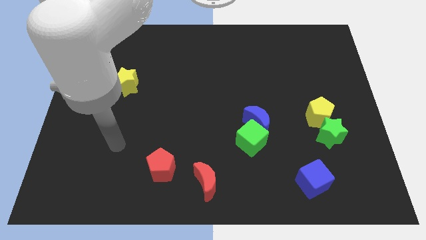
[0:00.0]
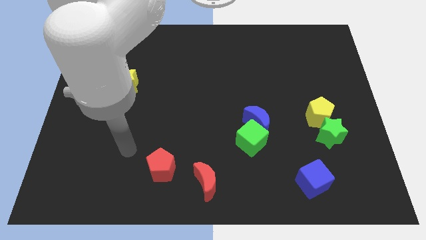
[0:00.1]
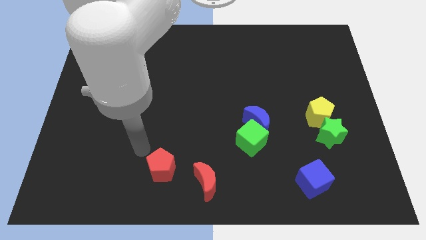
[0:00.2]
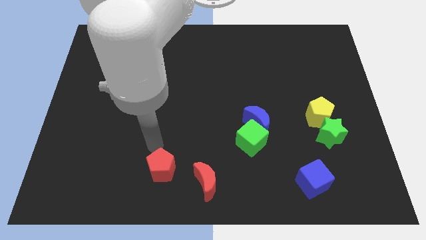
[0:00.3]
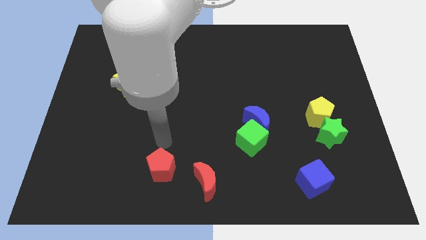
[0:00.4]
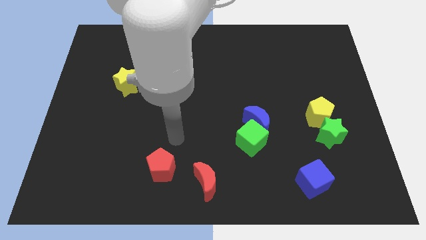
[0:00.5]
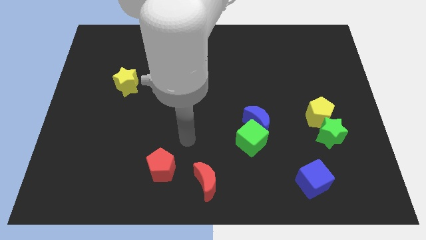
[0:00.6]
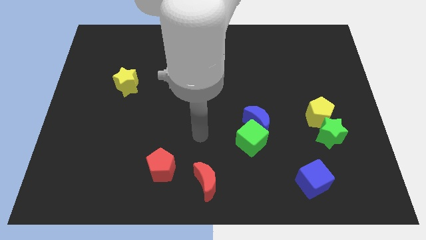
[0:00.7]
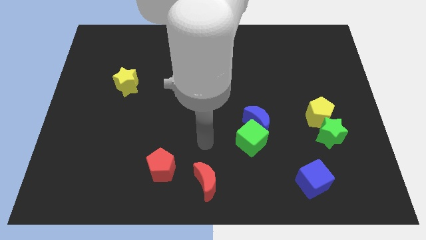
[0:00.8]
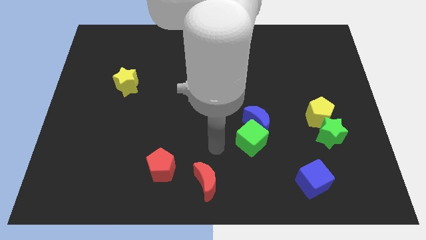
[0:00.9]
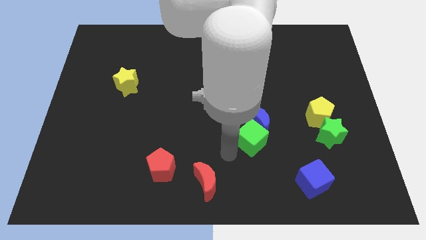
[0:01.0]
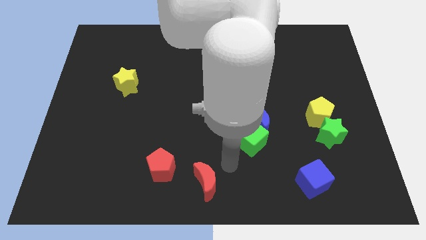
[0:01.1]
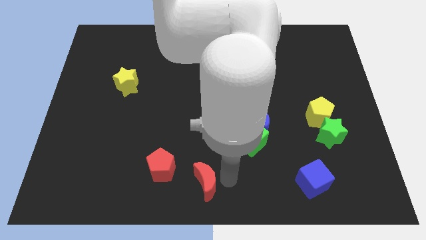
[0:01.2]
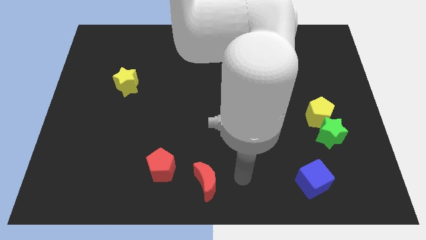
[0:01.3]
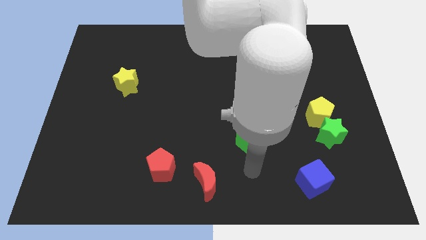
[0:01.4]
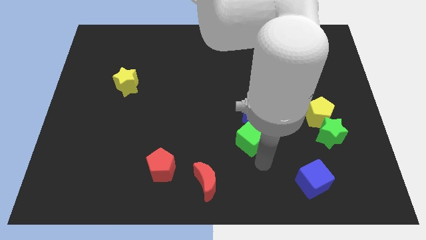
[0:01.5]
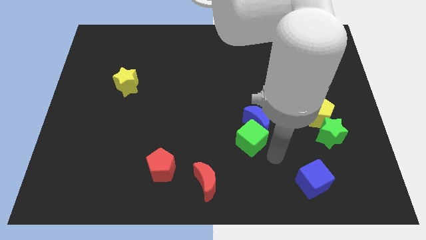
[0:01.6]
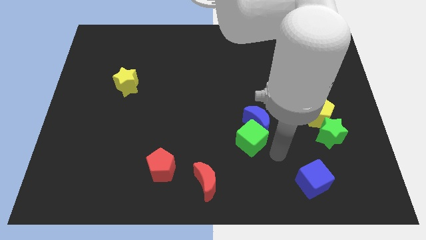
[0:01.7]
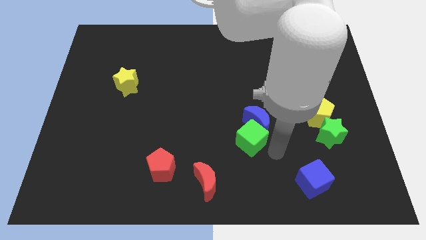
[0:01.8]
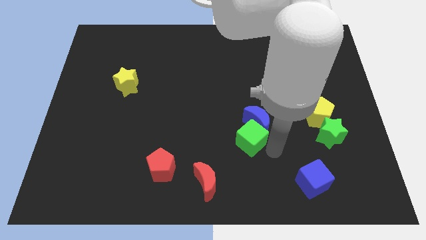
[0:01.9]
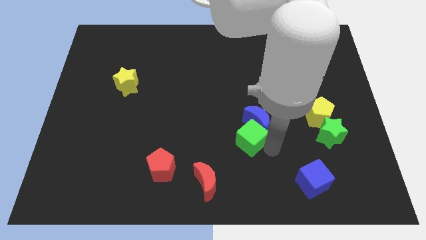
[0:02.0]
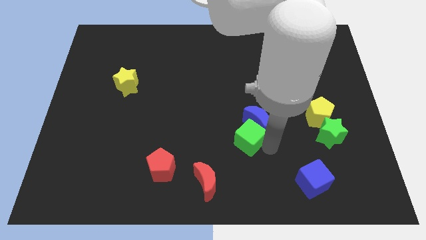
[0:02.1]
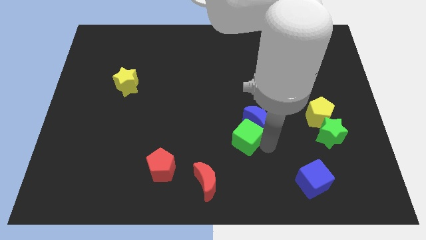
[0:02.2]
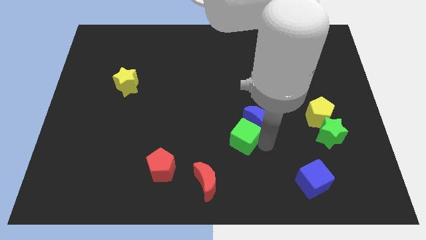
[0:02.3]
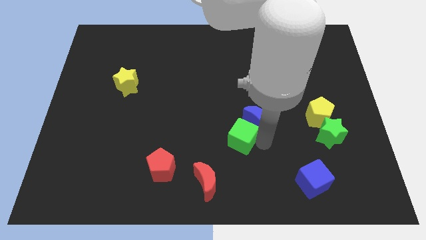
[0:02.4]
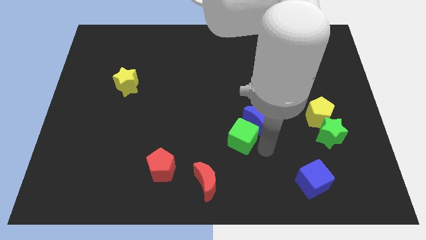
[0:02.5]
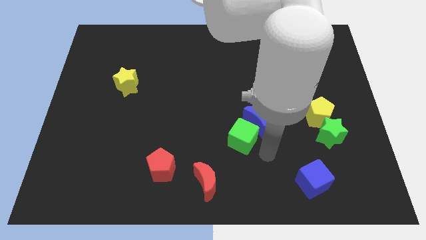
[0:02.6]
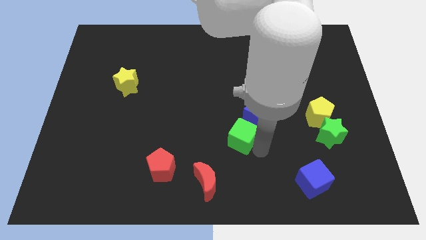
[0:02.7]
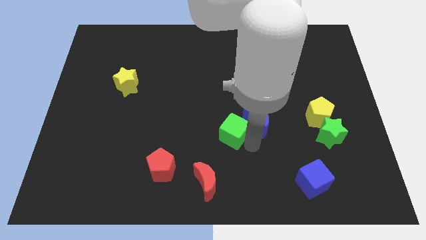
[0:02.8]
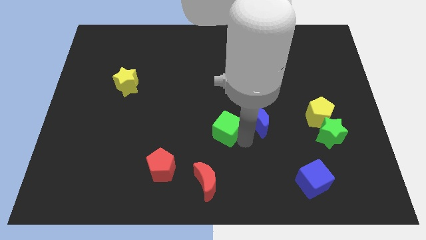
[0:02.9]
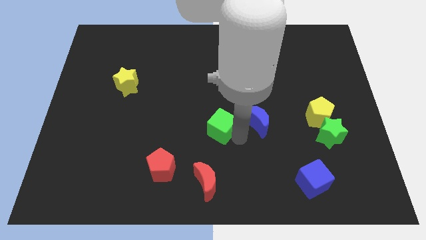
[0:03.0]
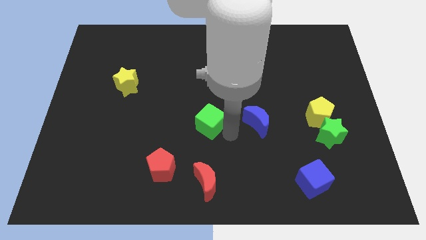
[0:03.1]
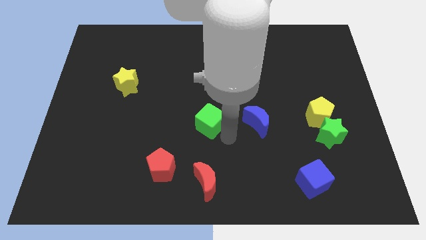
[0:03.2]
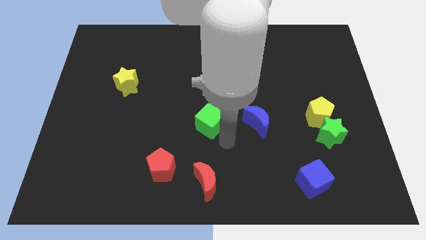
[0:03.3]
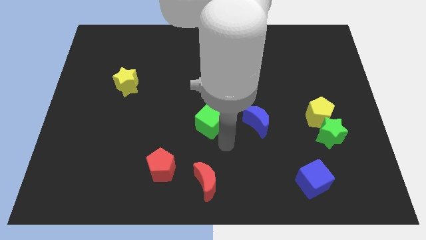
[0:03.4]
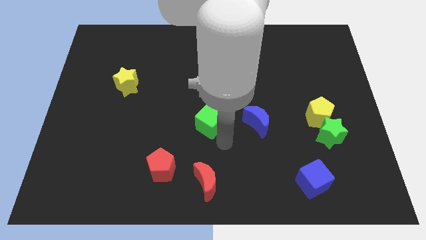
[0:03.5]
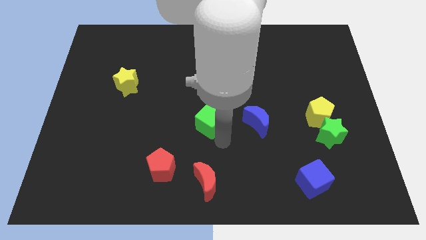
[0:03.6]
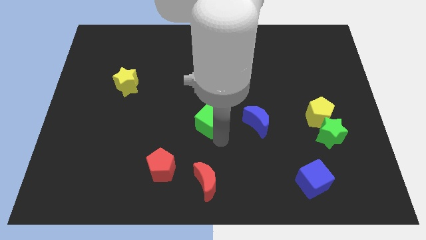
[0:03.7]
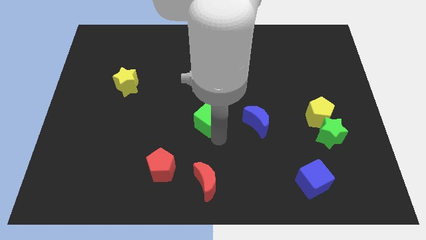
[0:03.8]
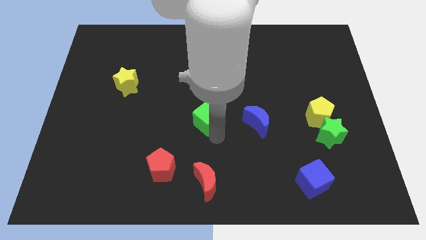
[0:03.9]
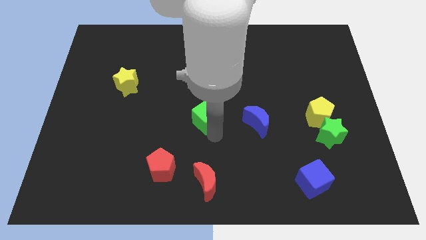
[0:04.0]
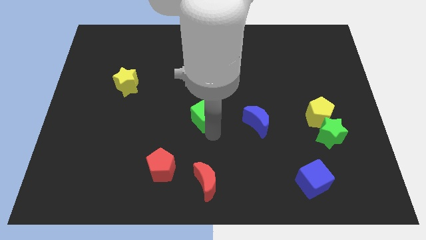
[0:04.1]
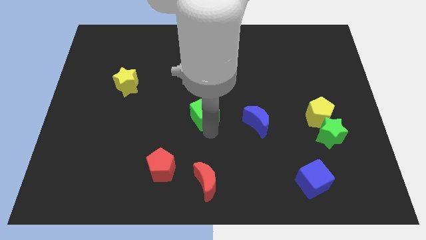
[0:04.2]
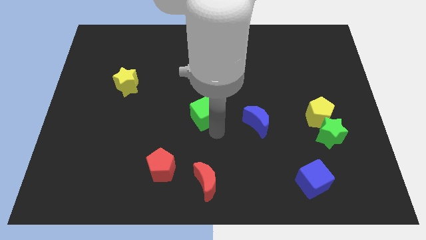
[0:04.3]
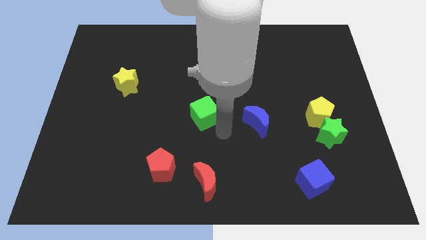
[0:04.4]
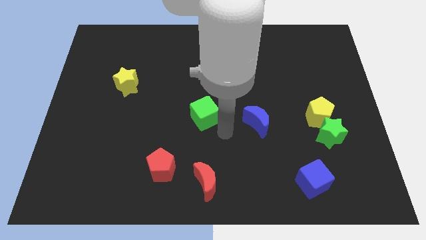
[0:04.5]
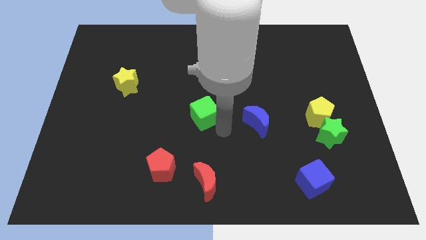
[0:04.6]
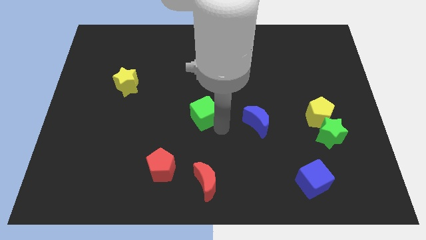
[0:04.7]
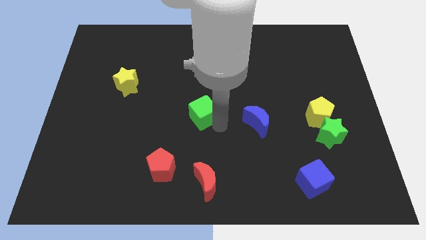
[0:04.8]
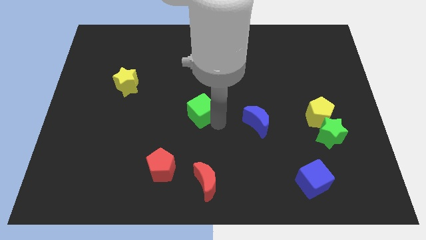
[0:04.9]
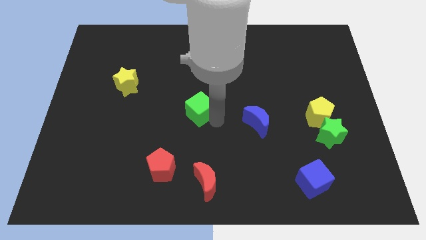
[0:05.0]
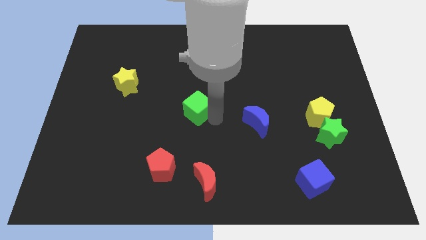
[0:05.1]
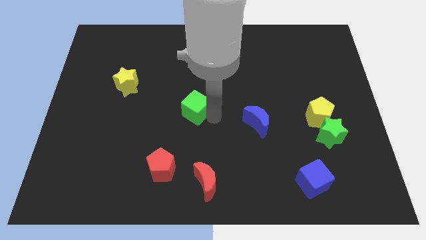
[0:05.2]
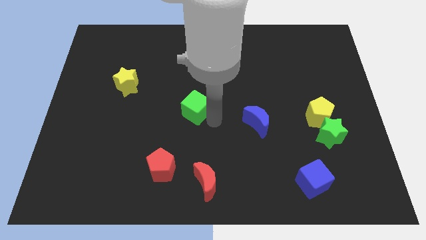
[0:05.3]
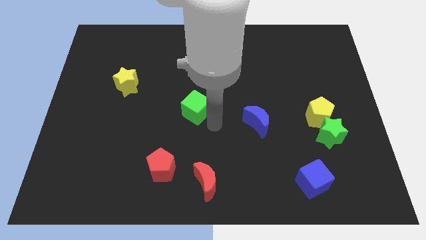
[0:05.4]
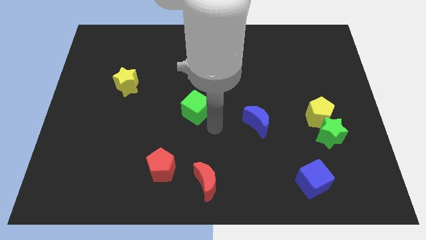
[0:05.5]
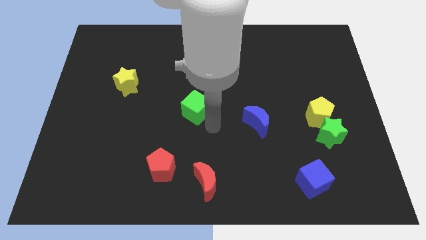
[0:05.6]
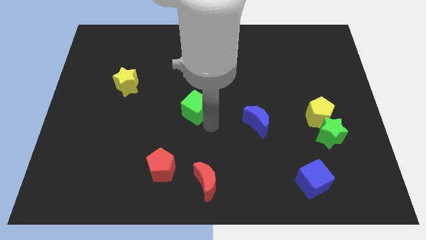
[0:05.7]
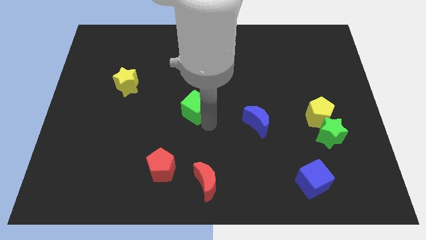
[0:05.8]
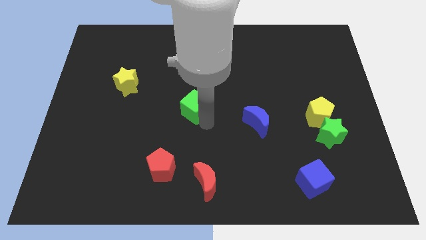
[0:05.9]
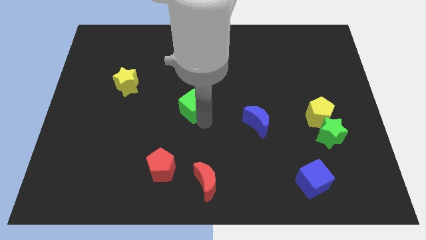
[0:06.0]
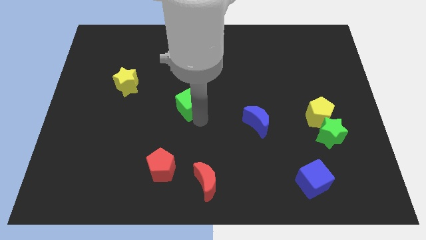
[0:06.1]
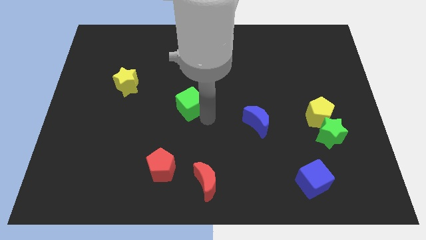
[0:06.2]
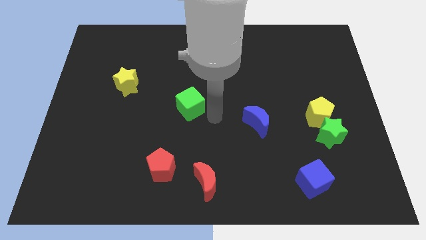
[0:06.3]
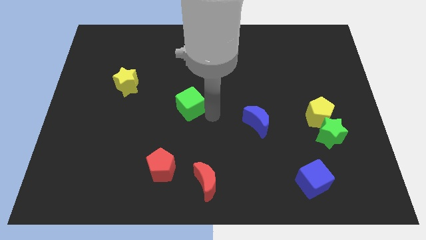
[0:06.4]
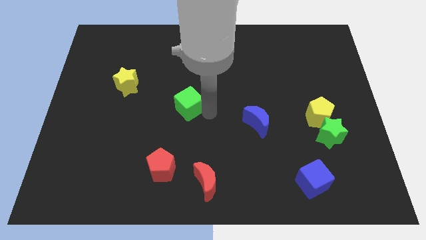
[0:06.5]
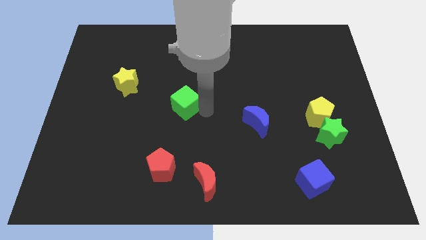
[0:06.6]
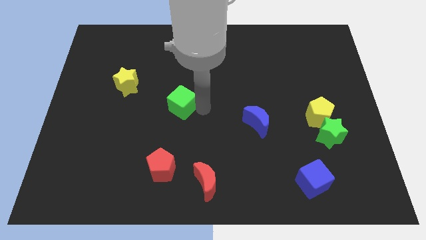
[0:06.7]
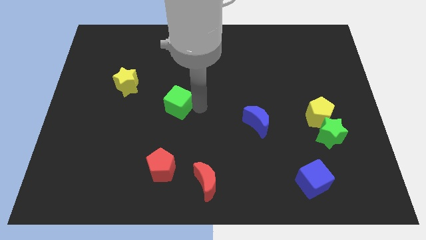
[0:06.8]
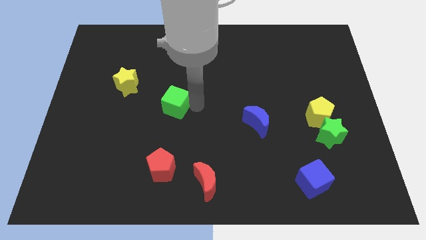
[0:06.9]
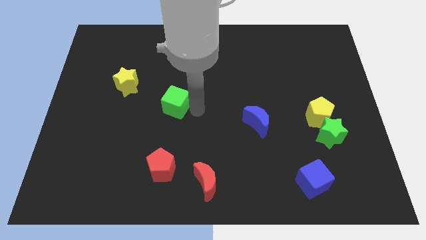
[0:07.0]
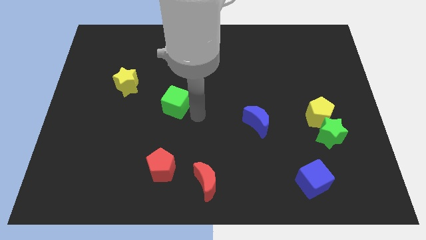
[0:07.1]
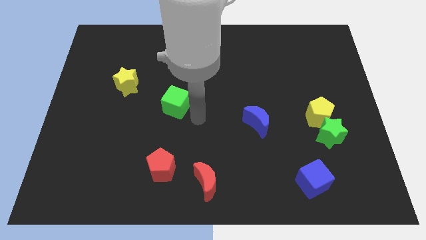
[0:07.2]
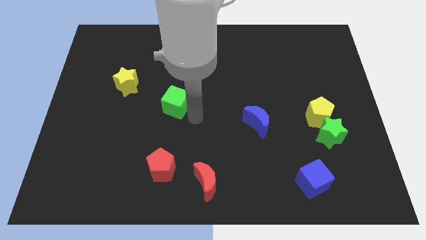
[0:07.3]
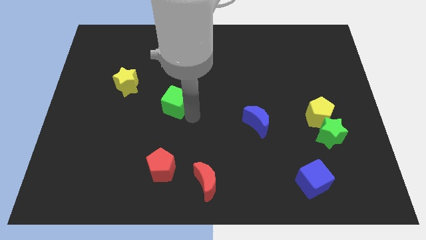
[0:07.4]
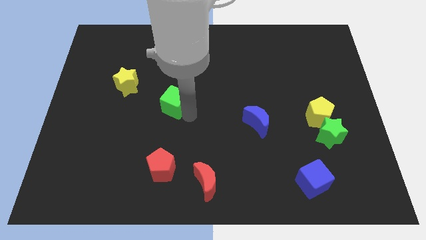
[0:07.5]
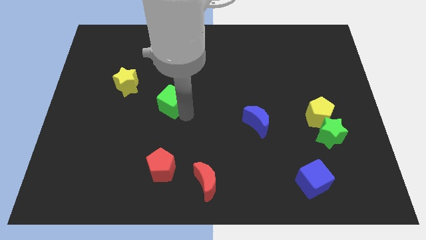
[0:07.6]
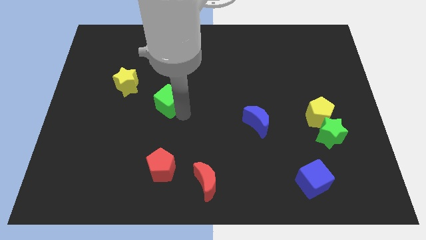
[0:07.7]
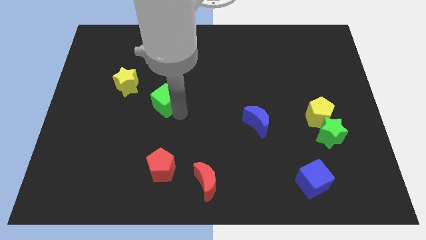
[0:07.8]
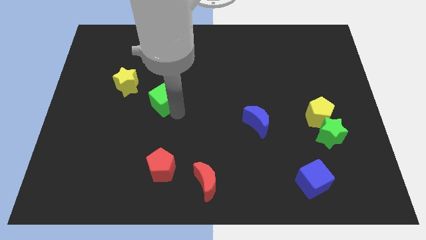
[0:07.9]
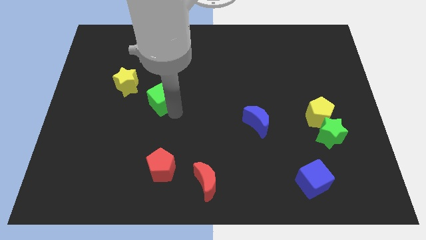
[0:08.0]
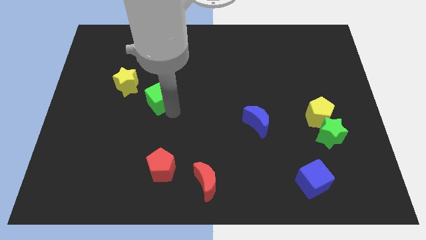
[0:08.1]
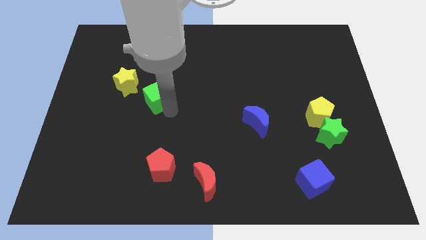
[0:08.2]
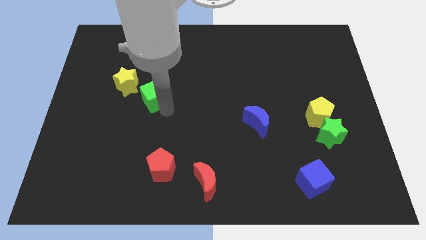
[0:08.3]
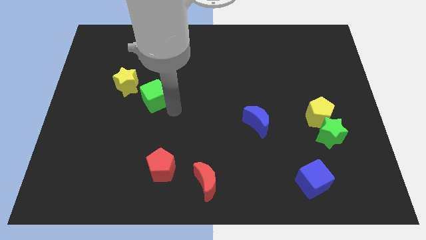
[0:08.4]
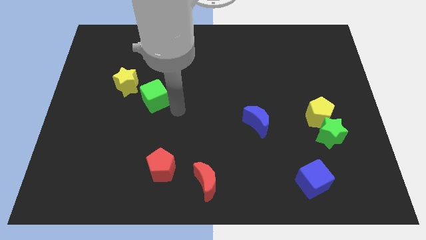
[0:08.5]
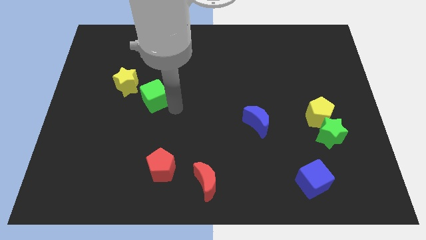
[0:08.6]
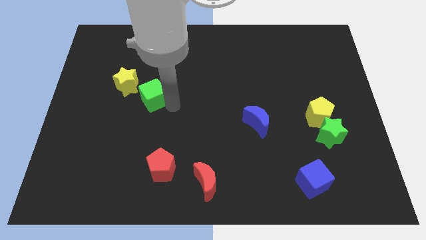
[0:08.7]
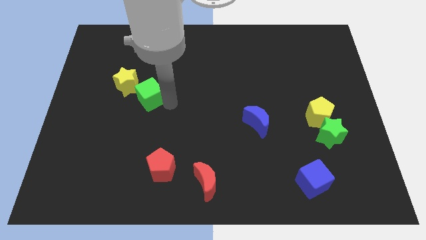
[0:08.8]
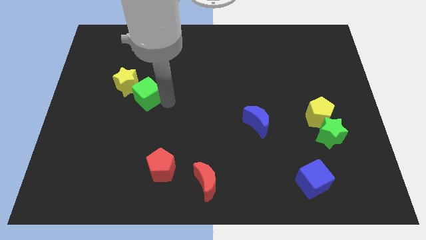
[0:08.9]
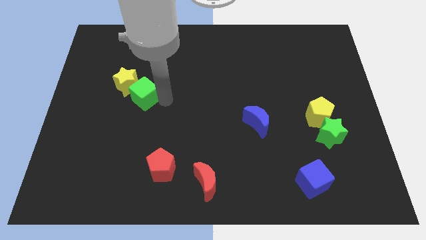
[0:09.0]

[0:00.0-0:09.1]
push the green cube to the yellow star
